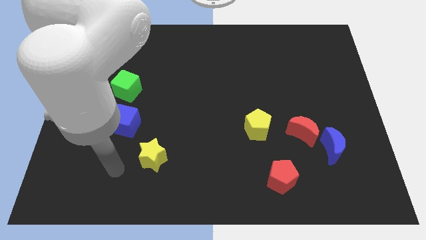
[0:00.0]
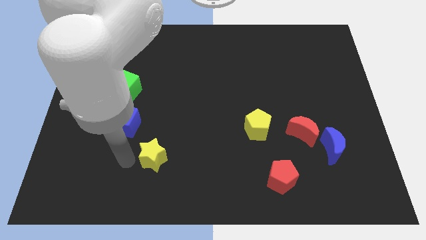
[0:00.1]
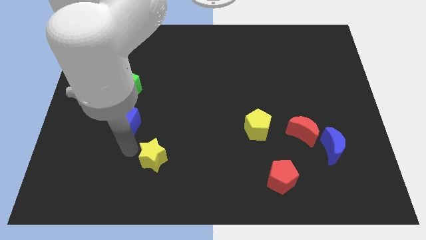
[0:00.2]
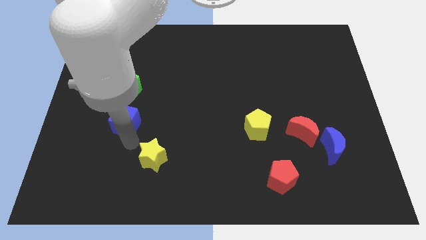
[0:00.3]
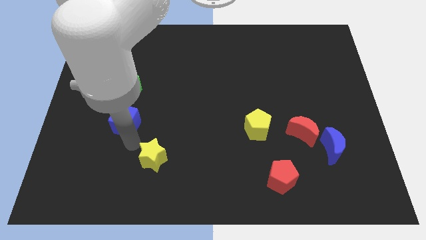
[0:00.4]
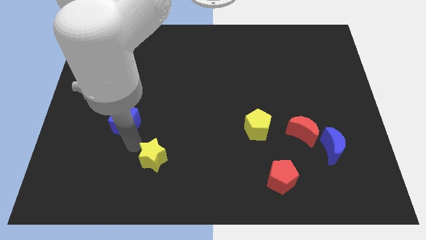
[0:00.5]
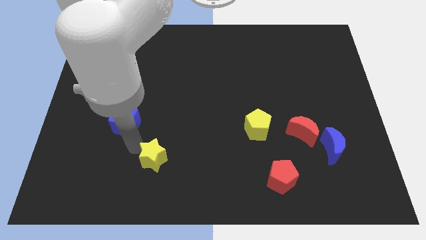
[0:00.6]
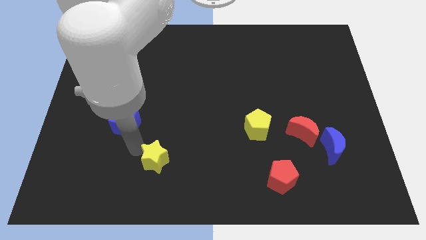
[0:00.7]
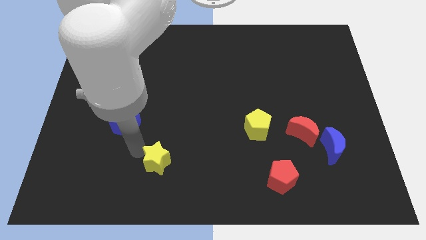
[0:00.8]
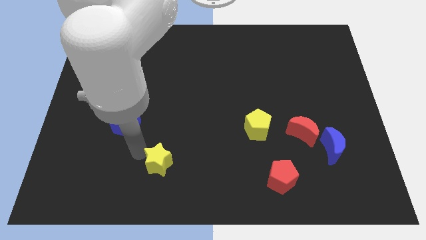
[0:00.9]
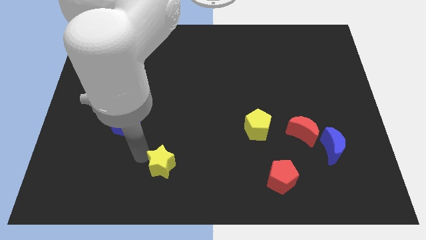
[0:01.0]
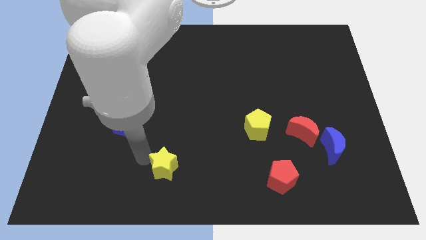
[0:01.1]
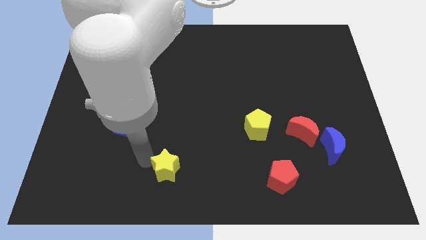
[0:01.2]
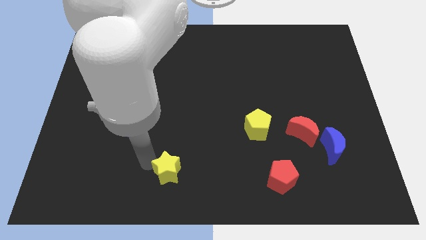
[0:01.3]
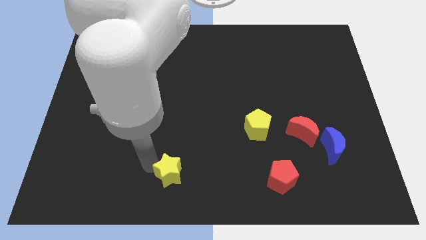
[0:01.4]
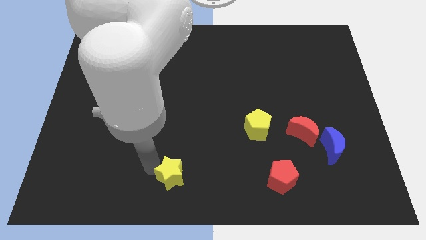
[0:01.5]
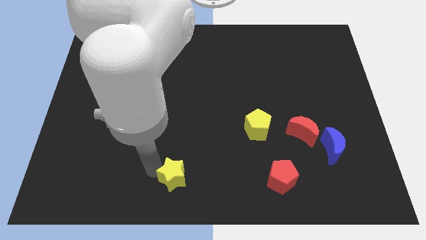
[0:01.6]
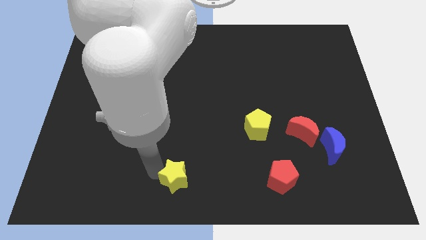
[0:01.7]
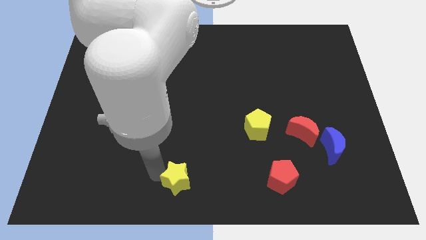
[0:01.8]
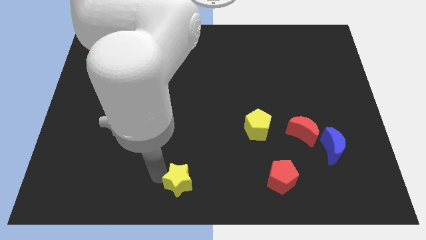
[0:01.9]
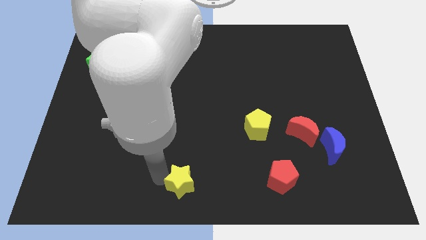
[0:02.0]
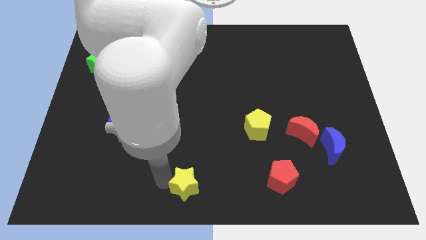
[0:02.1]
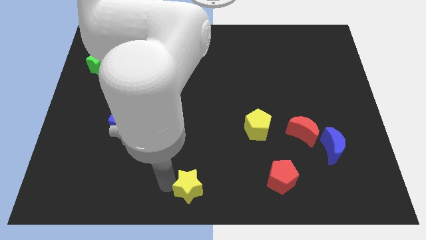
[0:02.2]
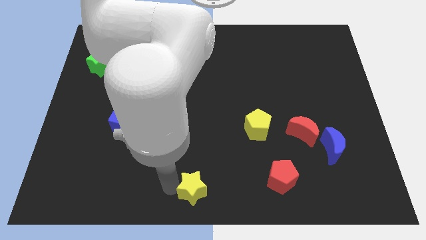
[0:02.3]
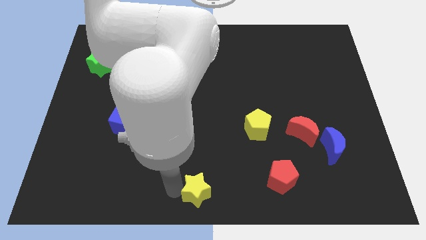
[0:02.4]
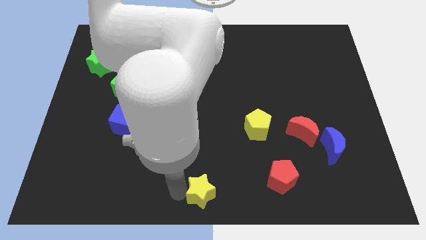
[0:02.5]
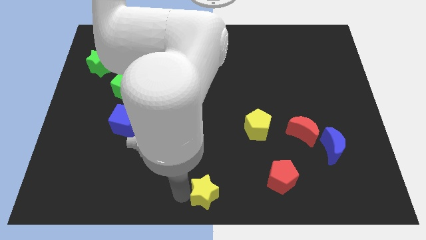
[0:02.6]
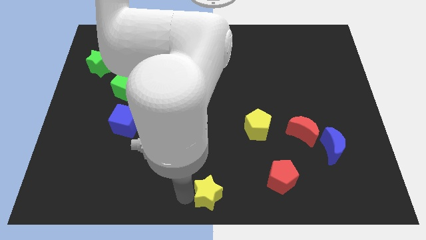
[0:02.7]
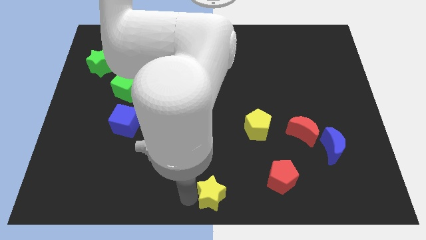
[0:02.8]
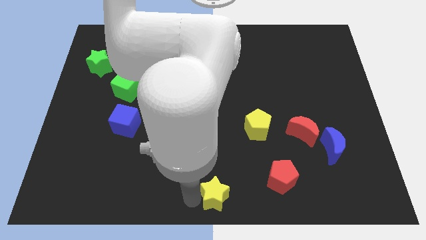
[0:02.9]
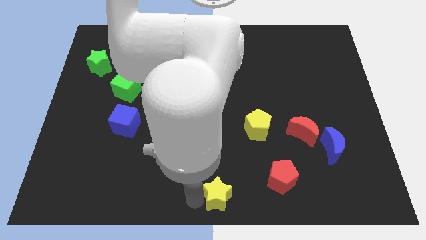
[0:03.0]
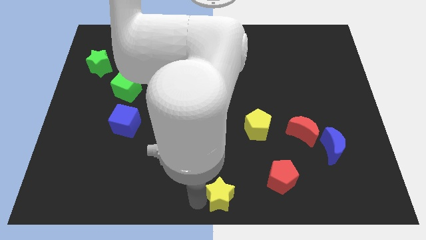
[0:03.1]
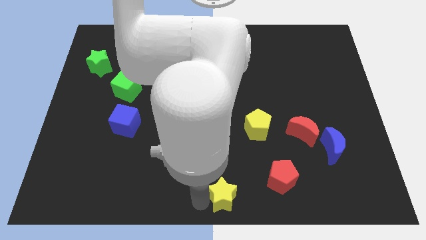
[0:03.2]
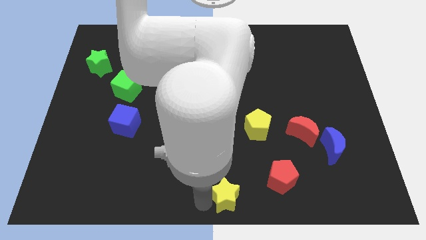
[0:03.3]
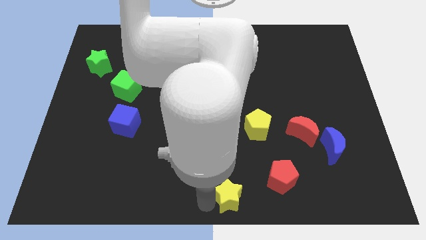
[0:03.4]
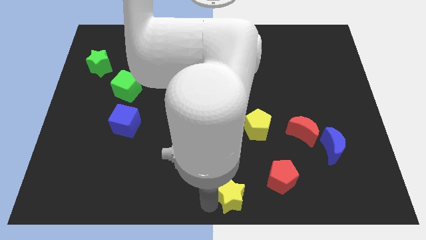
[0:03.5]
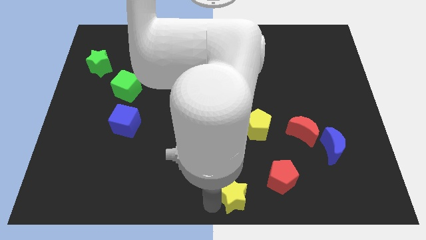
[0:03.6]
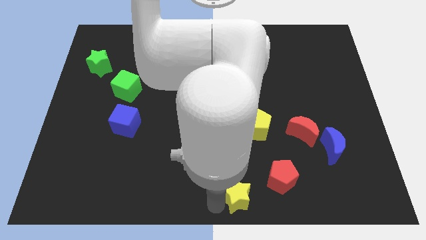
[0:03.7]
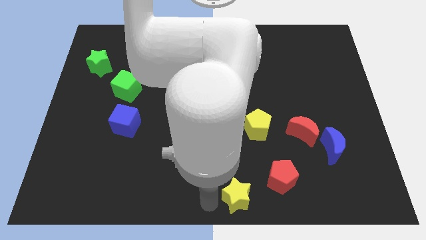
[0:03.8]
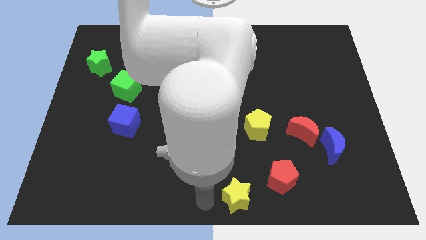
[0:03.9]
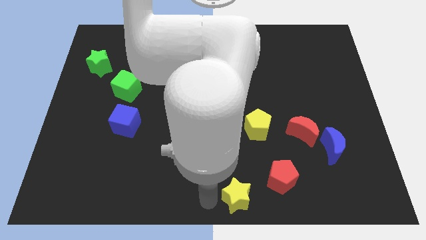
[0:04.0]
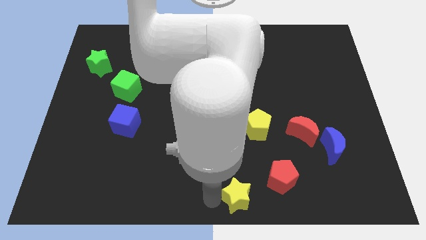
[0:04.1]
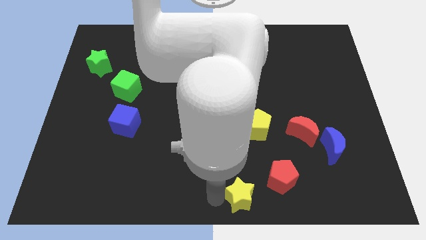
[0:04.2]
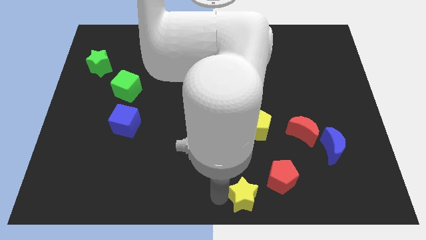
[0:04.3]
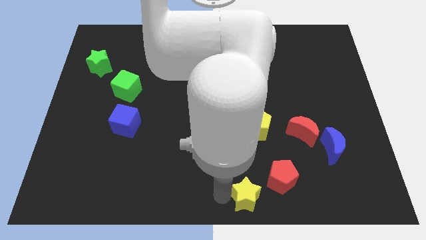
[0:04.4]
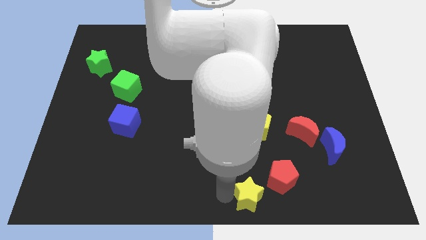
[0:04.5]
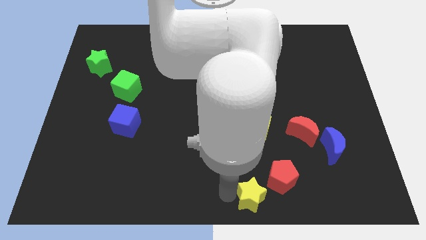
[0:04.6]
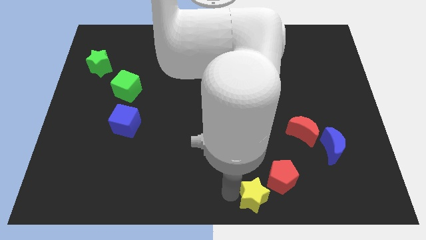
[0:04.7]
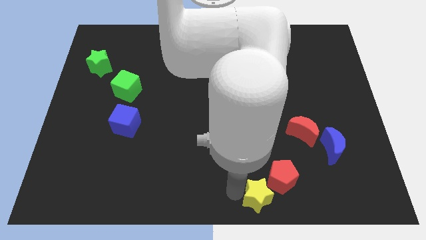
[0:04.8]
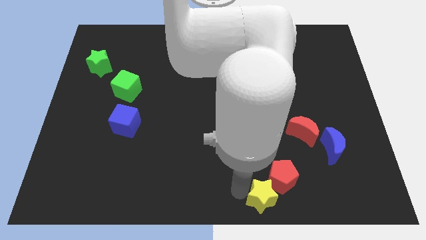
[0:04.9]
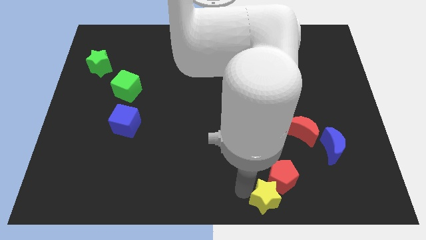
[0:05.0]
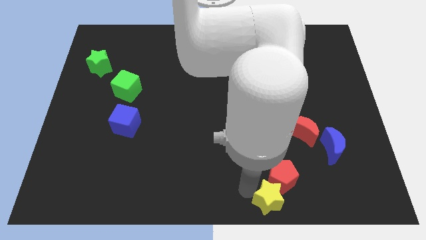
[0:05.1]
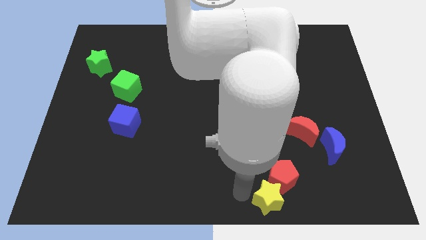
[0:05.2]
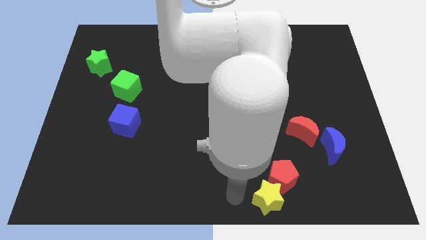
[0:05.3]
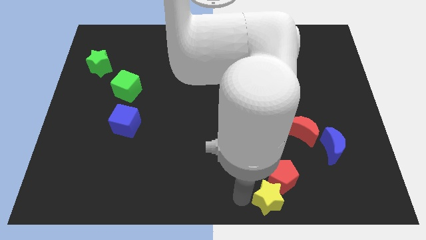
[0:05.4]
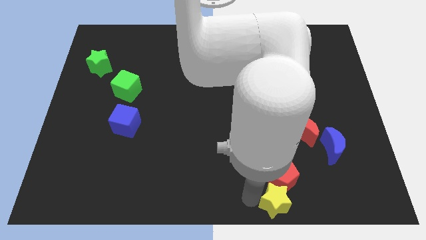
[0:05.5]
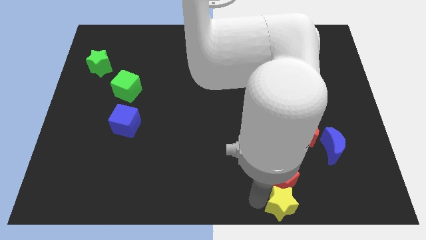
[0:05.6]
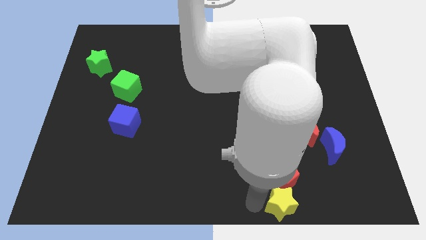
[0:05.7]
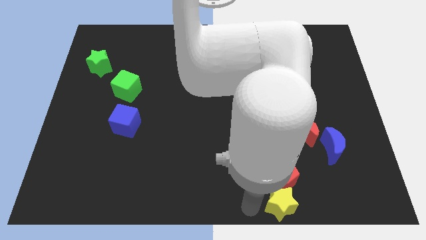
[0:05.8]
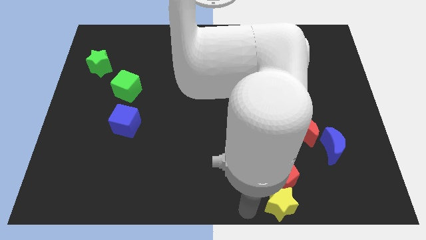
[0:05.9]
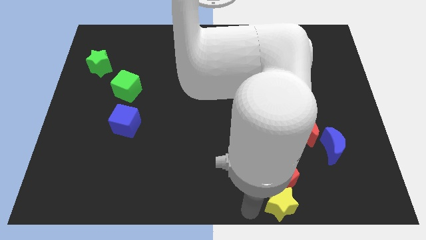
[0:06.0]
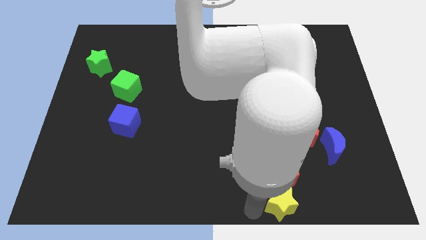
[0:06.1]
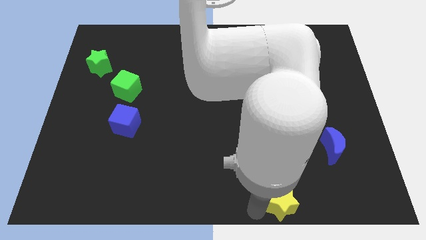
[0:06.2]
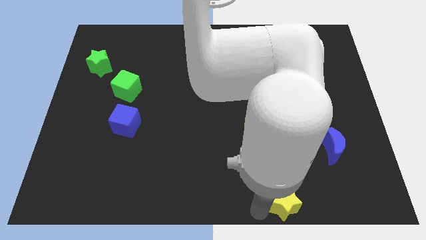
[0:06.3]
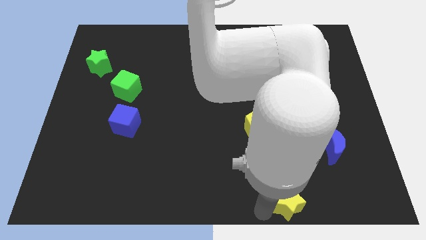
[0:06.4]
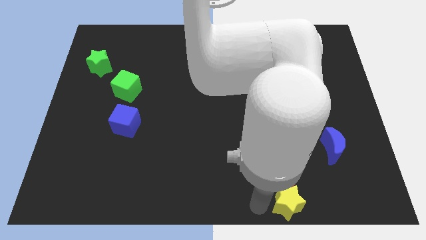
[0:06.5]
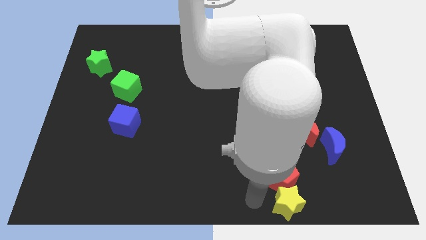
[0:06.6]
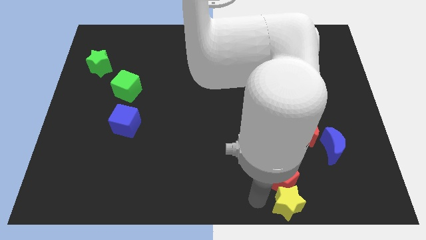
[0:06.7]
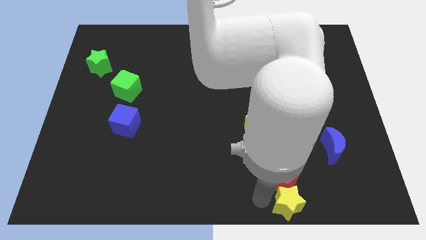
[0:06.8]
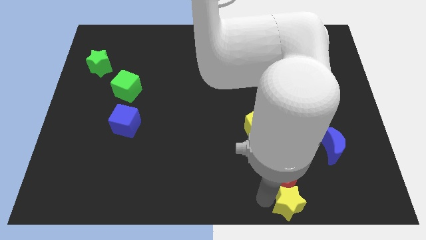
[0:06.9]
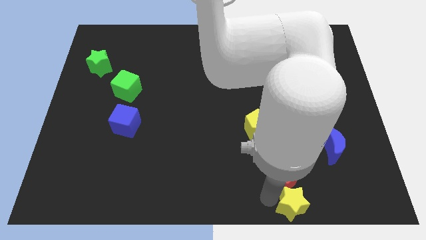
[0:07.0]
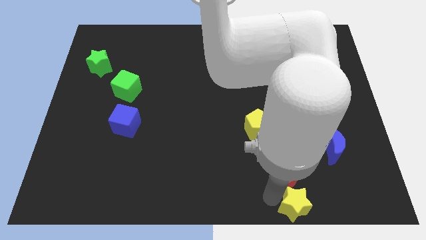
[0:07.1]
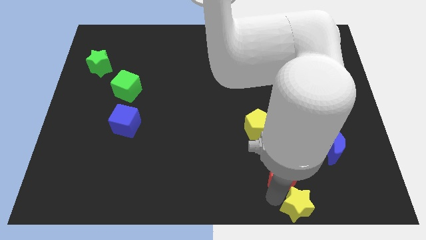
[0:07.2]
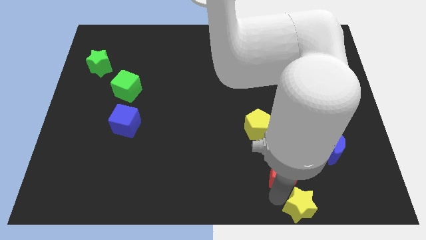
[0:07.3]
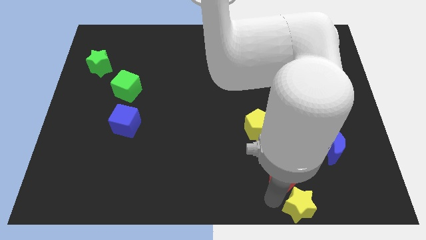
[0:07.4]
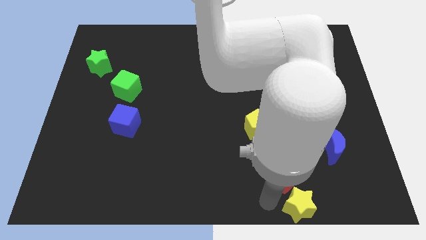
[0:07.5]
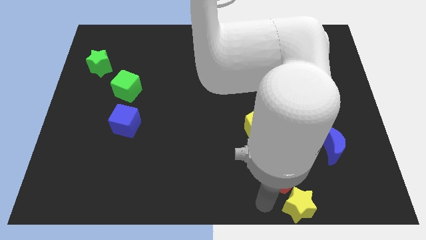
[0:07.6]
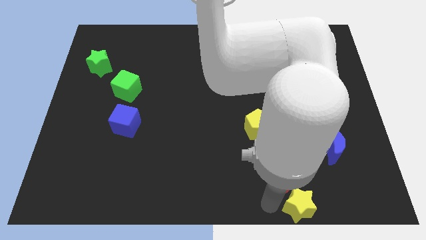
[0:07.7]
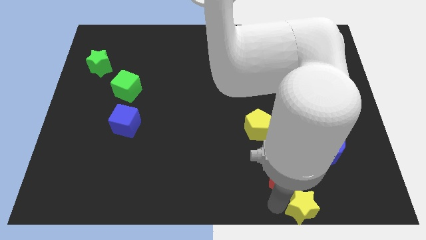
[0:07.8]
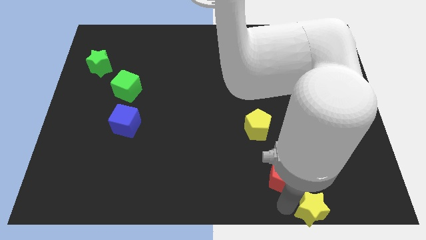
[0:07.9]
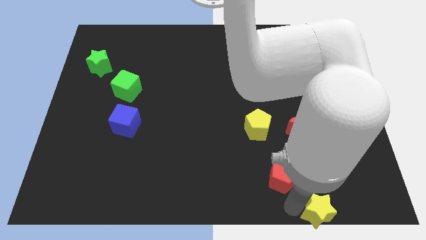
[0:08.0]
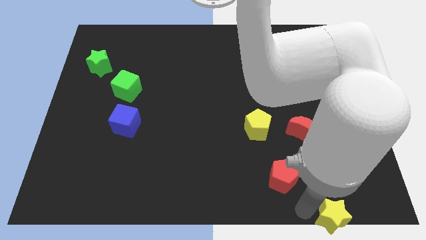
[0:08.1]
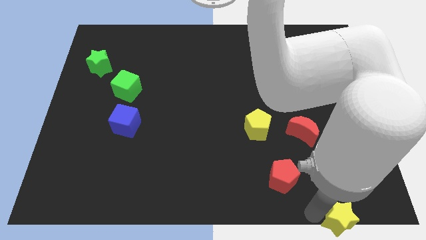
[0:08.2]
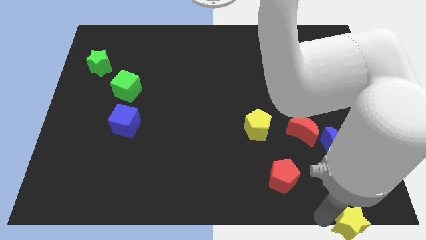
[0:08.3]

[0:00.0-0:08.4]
move the yellow star to the bottom right corner

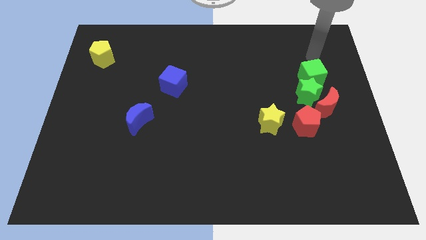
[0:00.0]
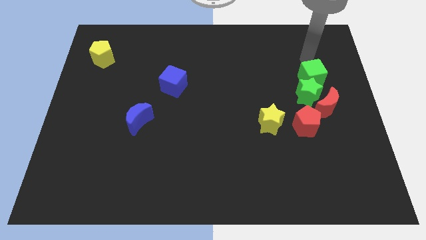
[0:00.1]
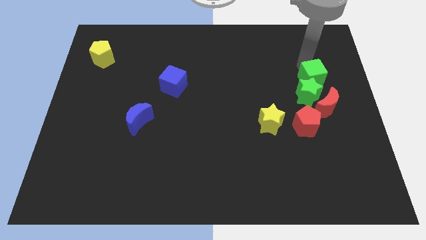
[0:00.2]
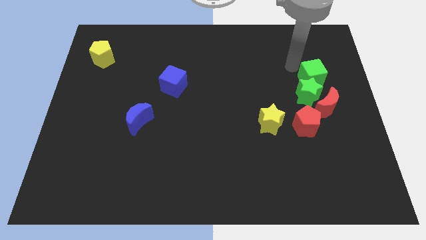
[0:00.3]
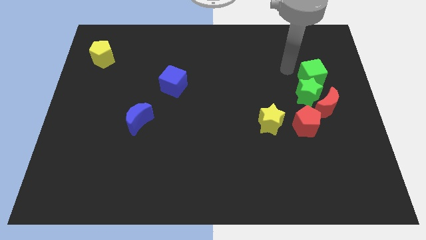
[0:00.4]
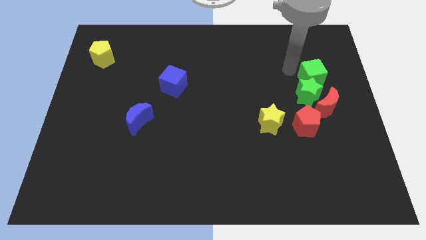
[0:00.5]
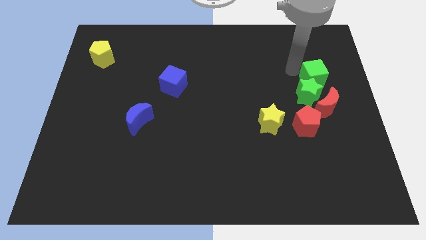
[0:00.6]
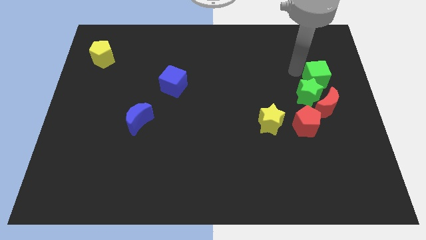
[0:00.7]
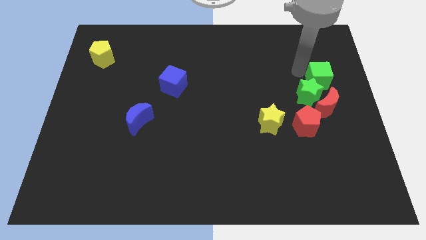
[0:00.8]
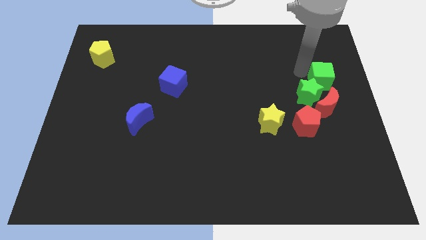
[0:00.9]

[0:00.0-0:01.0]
put the green cube to the right side
